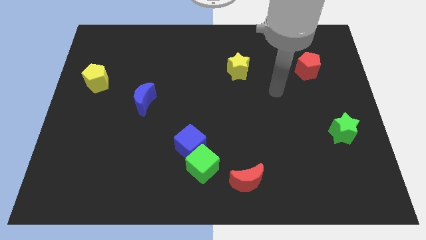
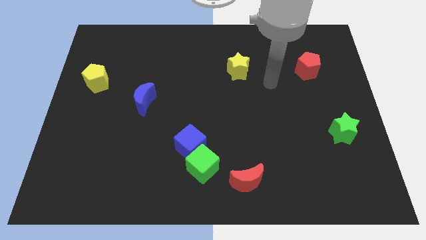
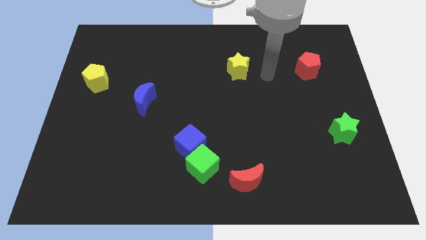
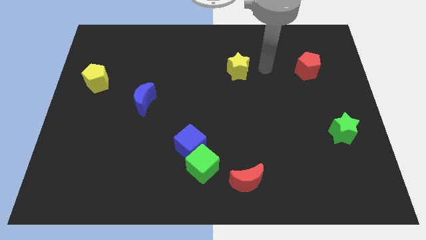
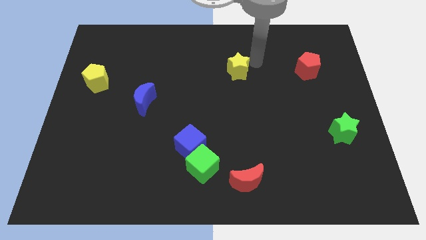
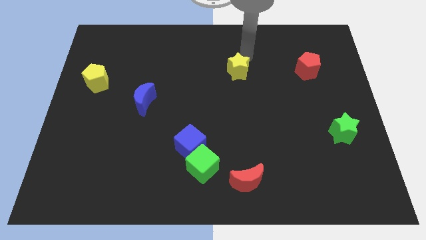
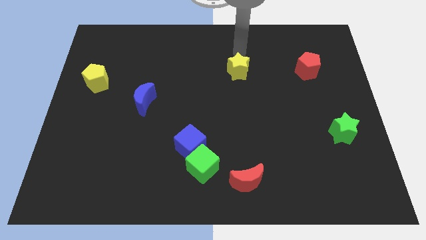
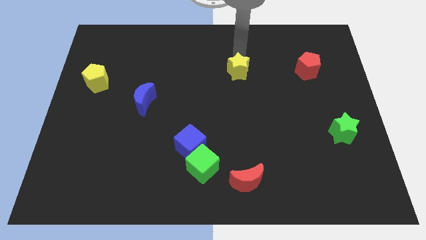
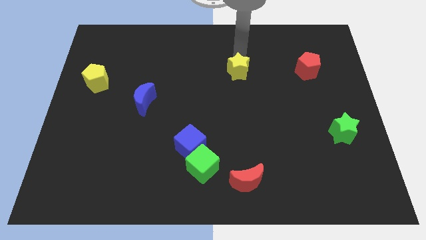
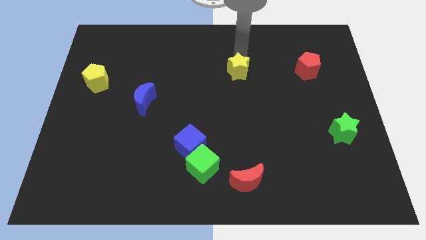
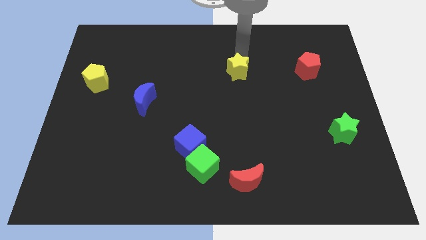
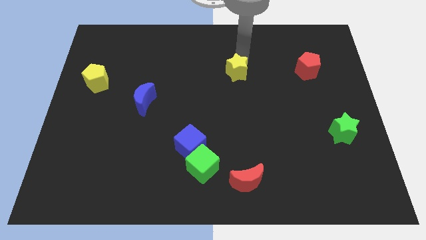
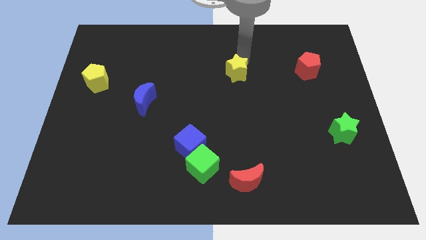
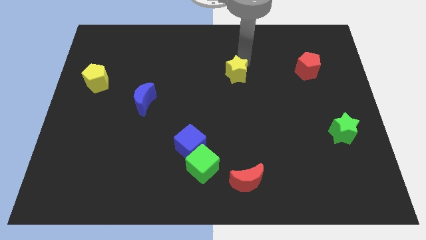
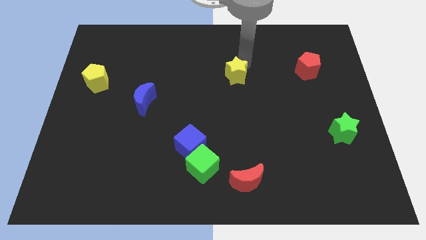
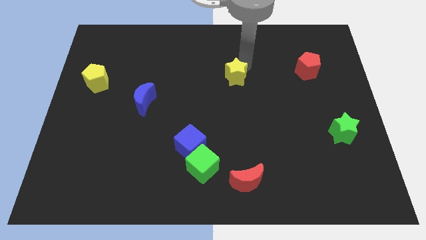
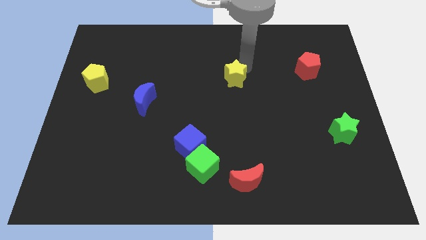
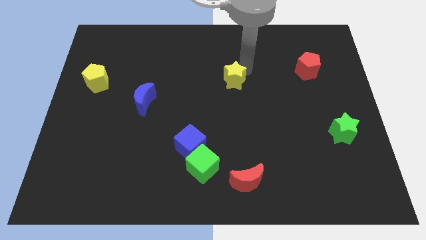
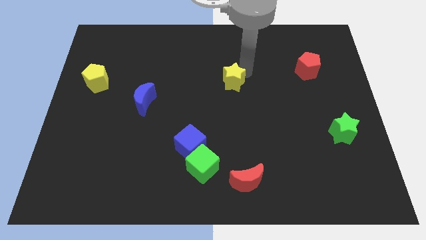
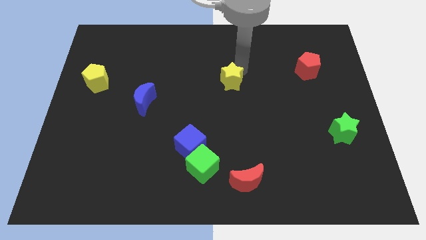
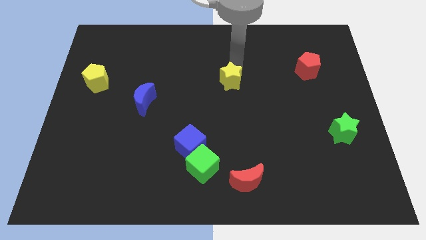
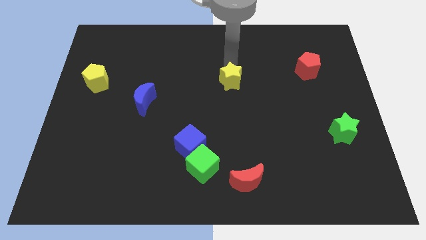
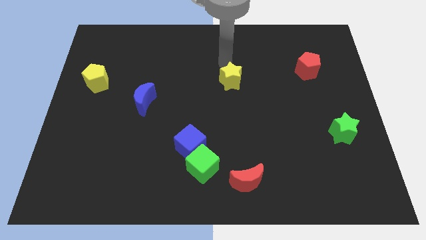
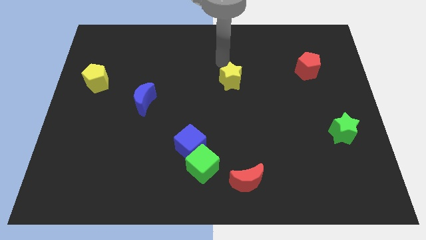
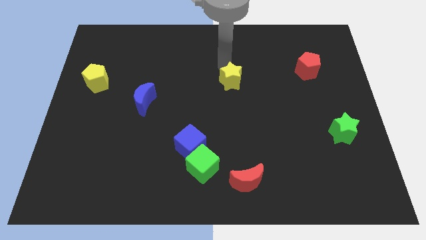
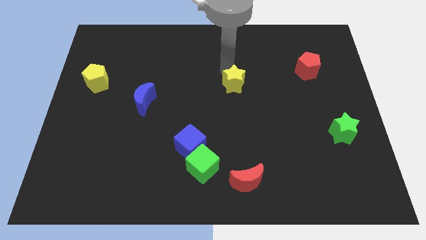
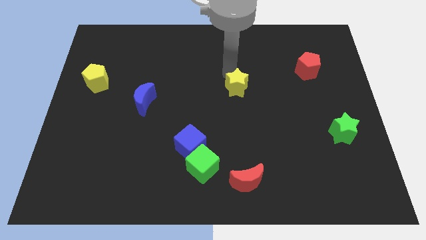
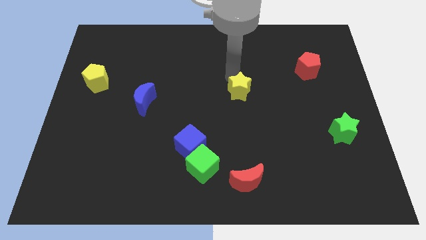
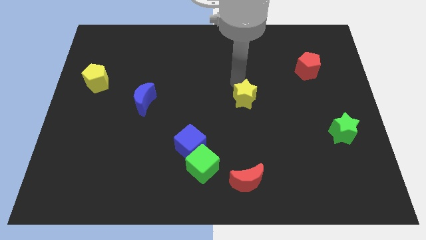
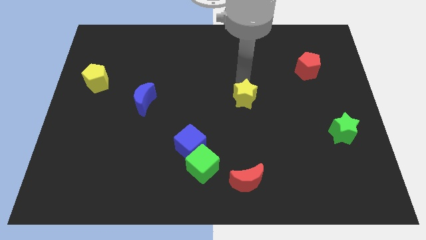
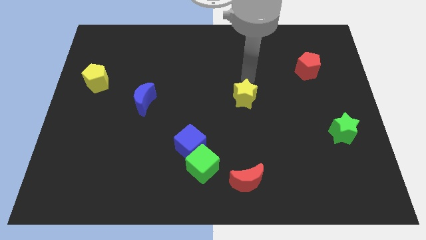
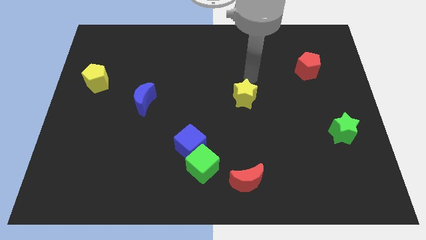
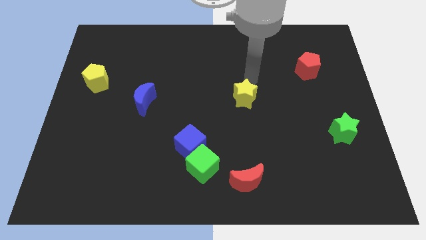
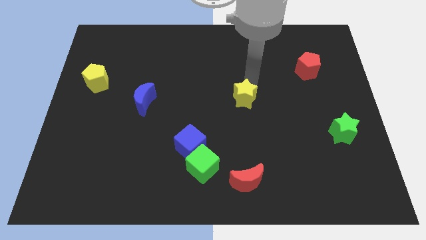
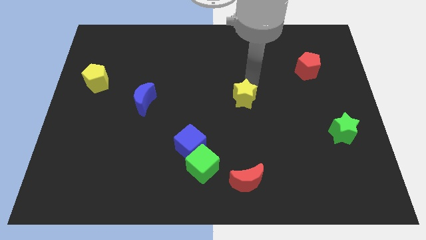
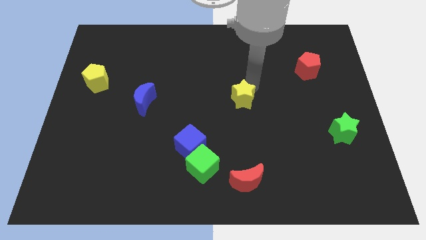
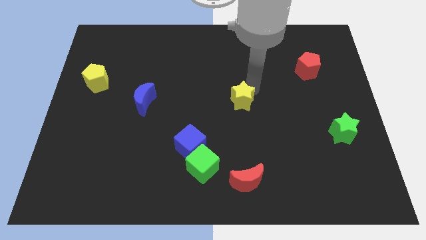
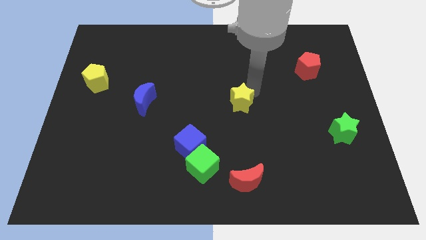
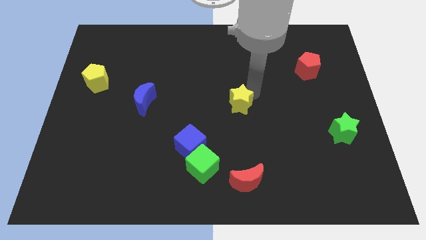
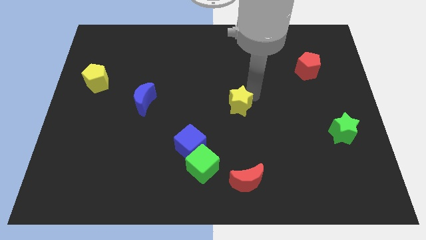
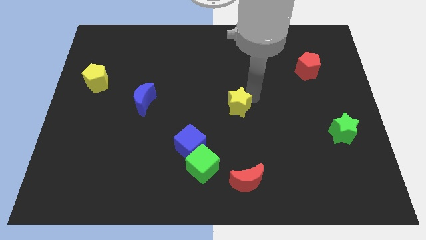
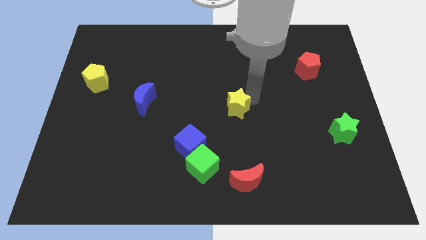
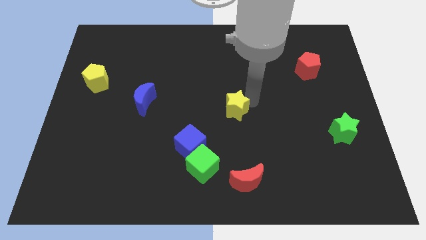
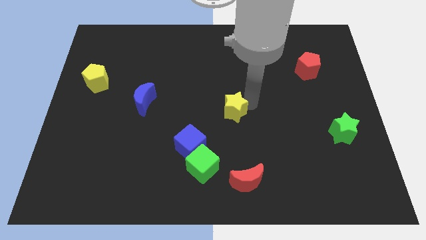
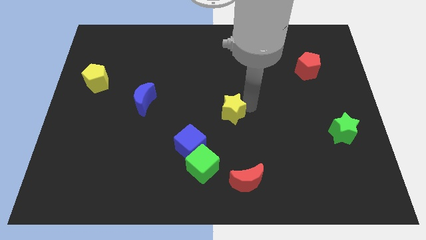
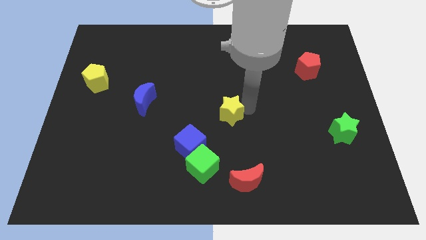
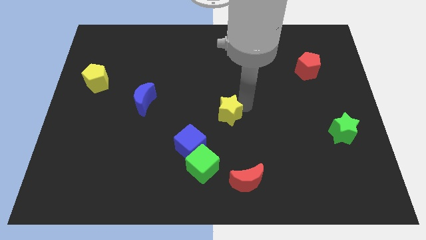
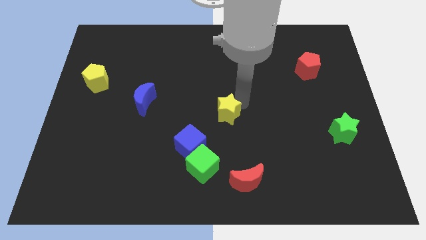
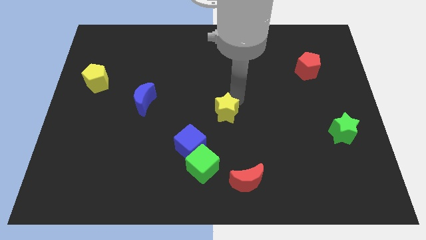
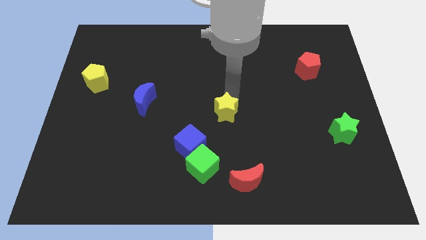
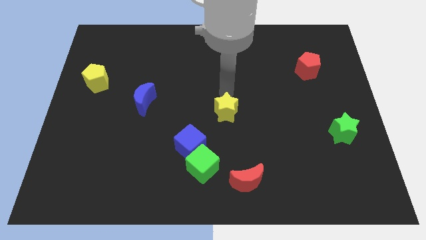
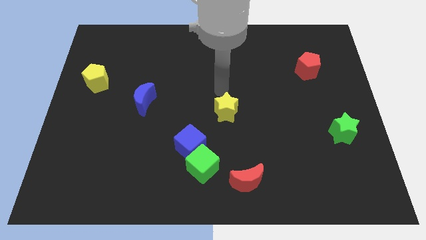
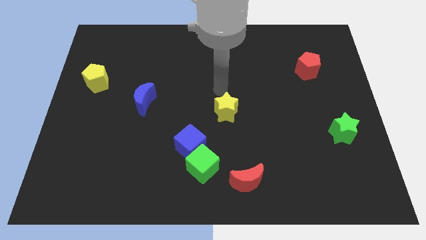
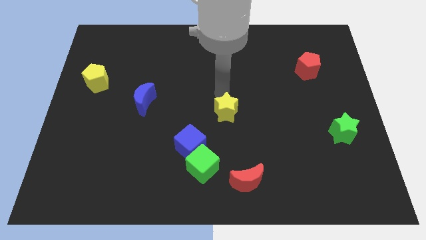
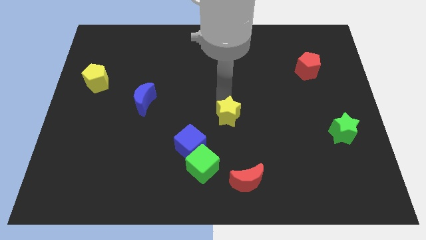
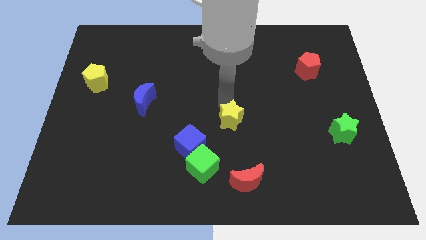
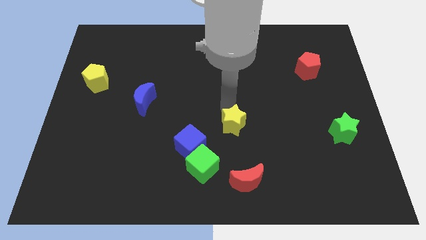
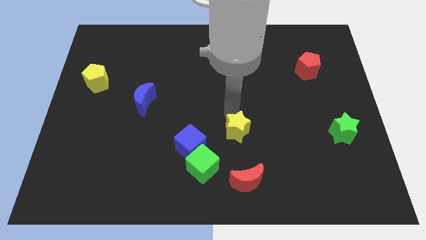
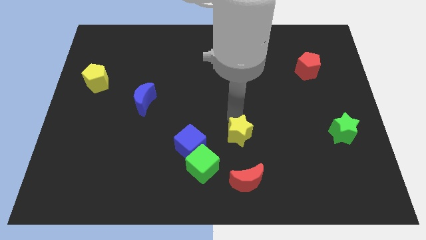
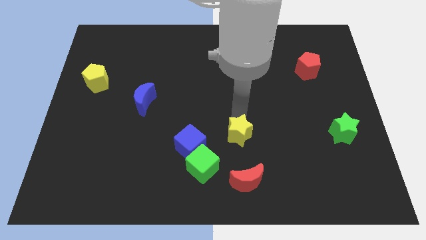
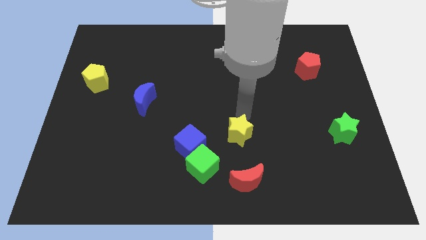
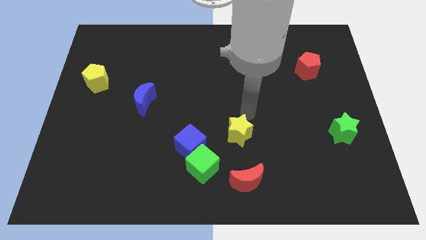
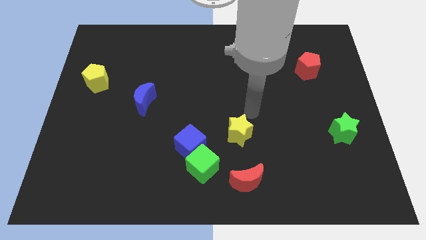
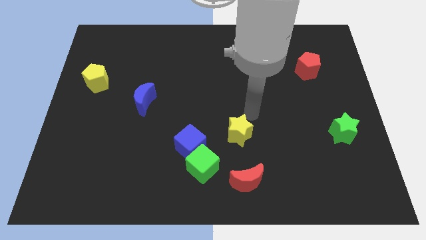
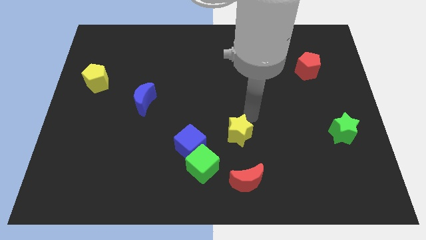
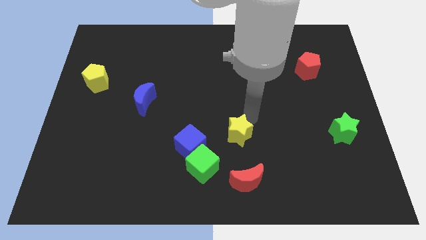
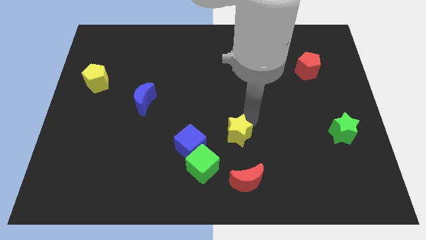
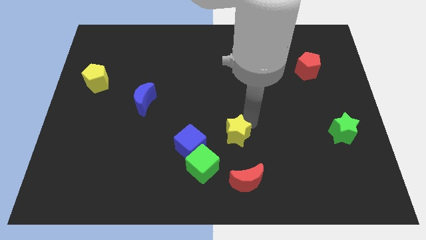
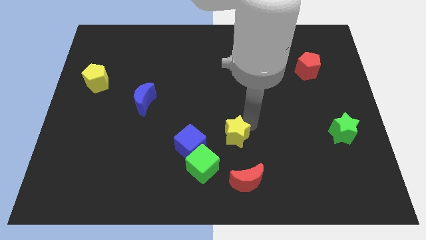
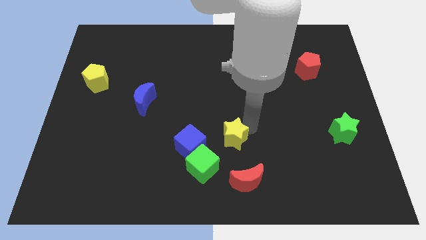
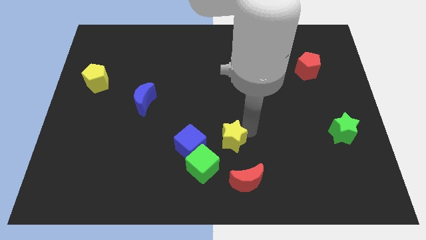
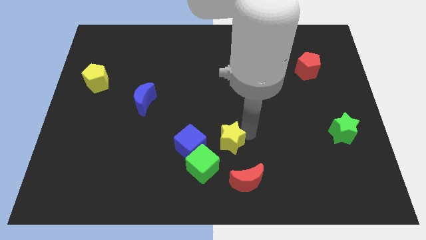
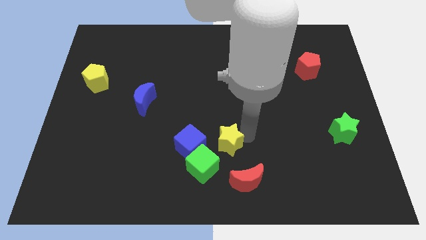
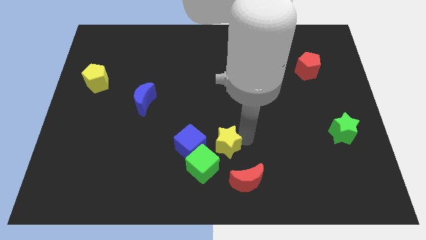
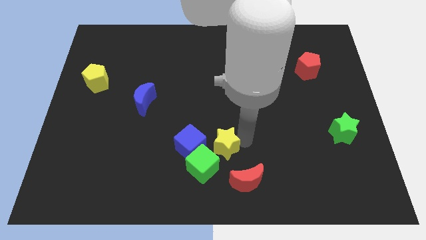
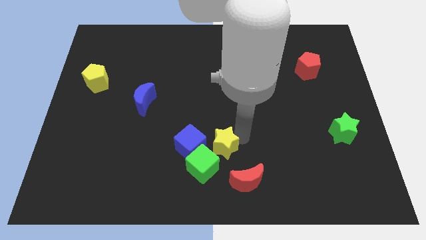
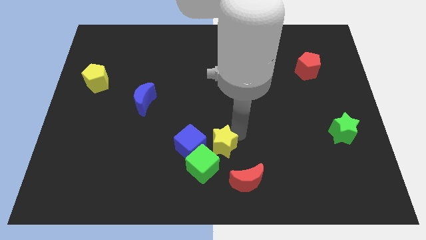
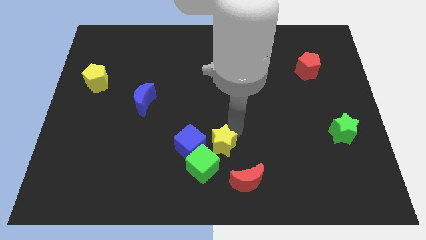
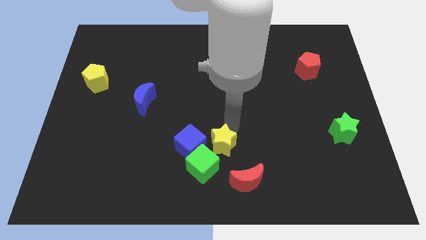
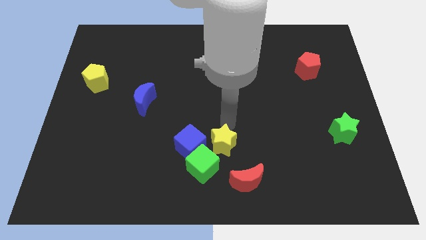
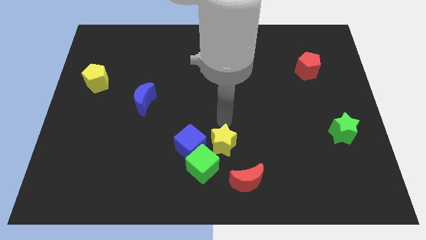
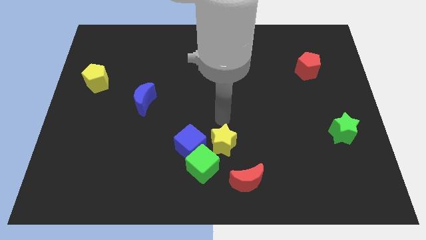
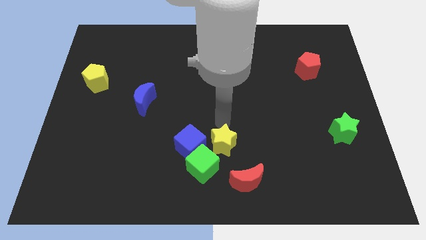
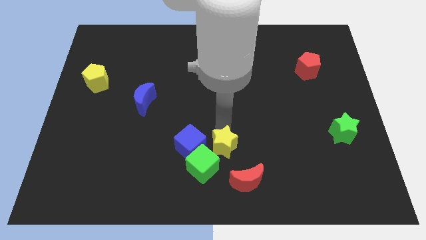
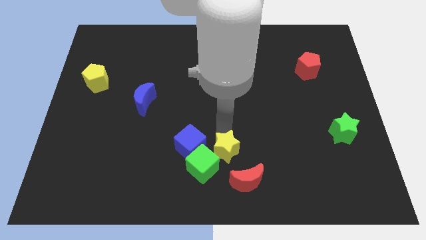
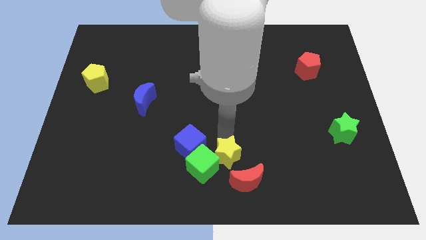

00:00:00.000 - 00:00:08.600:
push the yellow star to the bottom side
